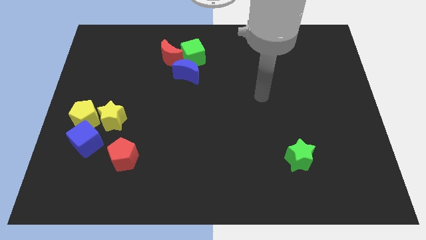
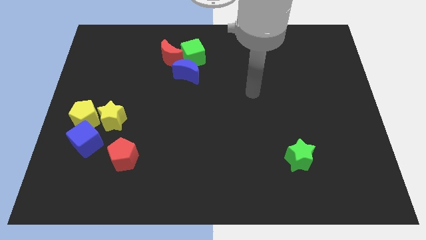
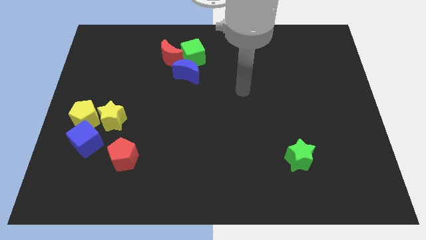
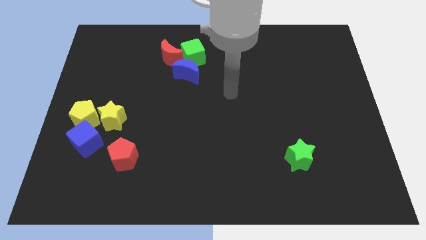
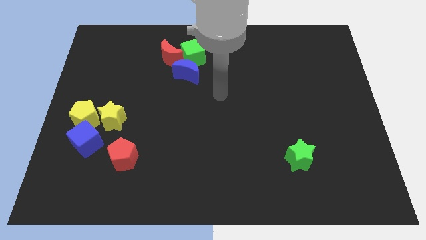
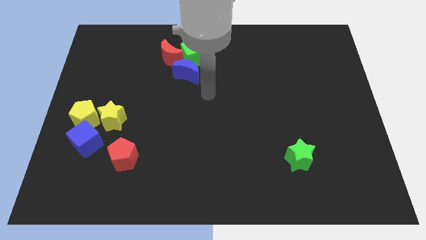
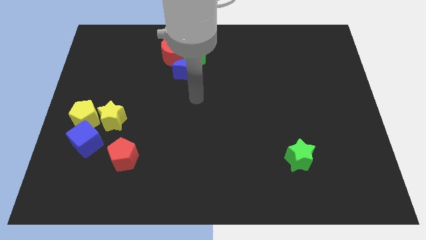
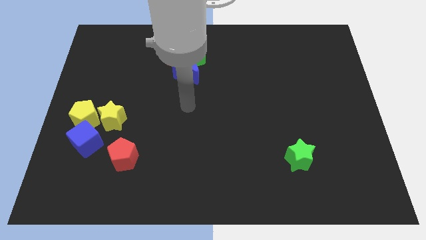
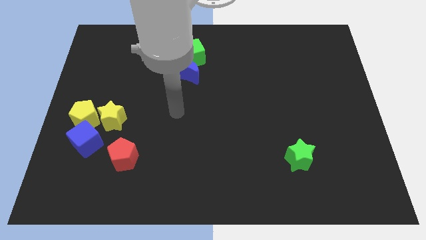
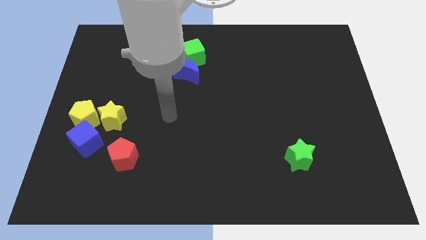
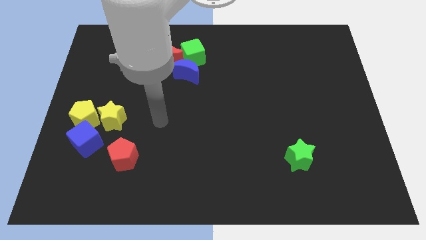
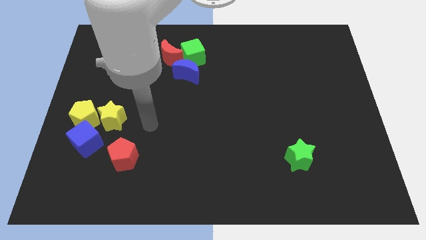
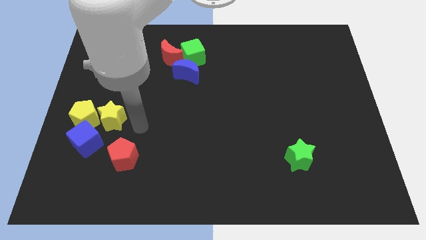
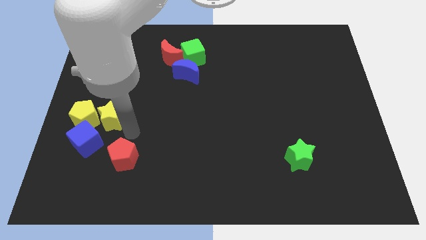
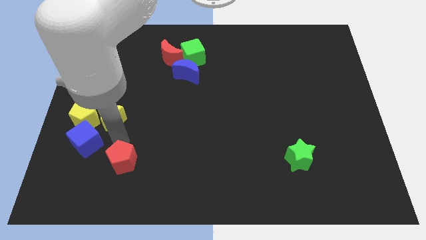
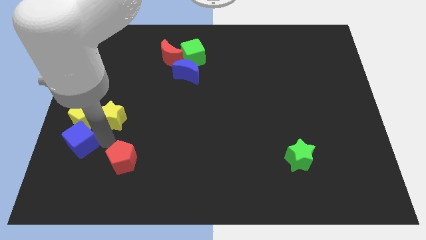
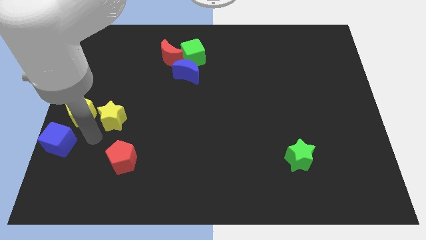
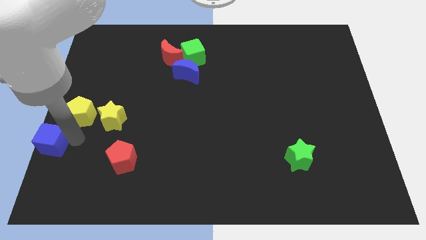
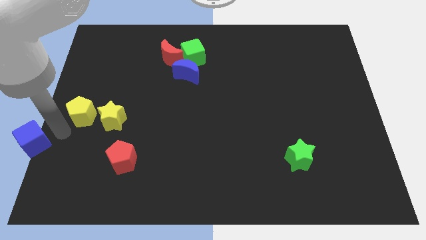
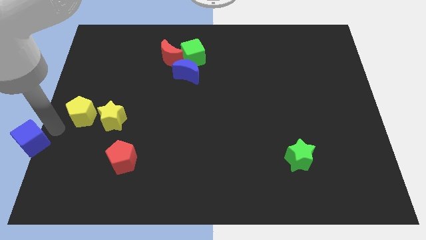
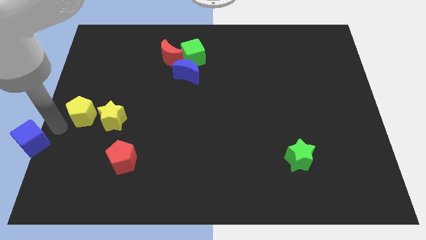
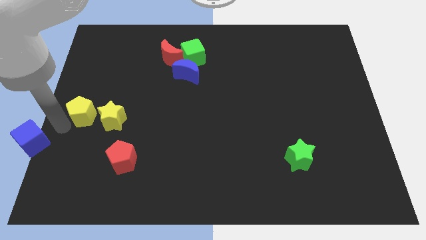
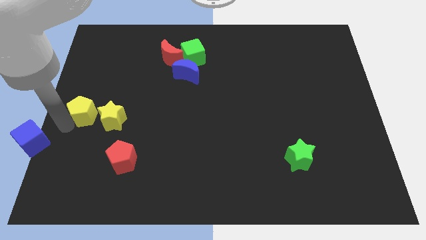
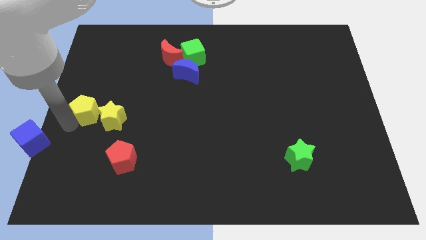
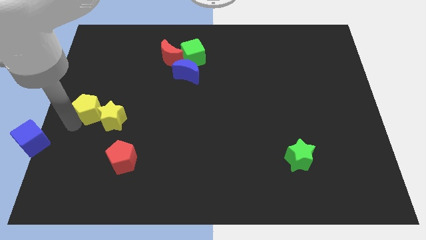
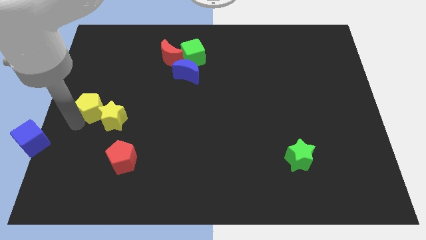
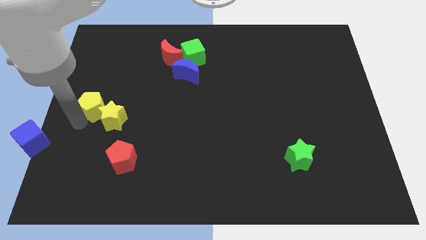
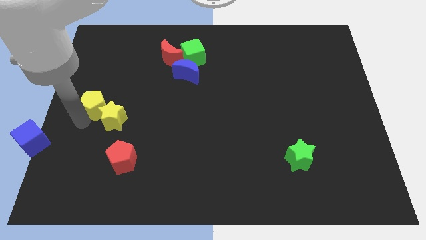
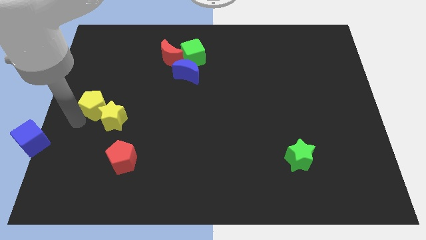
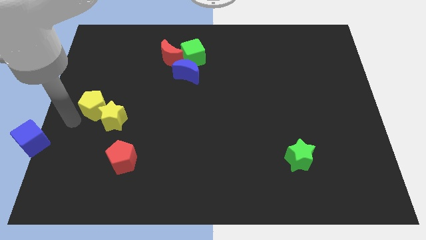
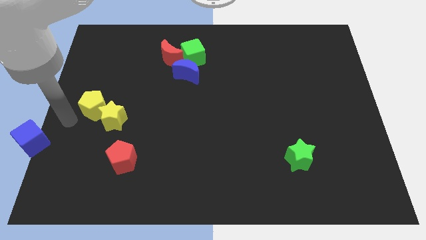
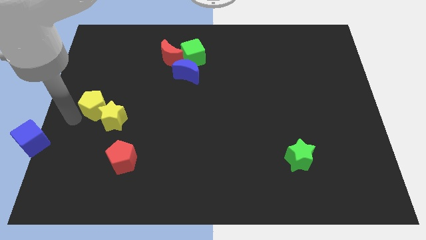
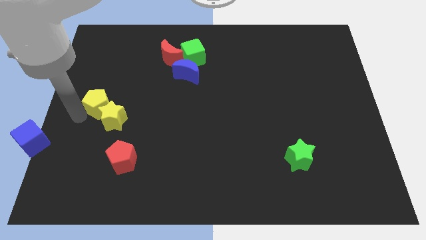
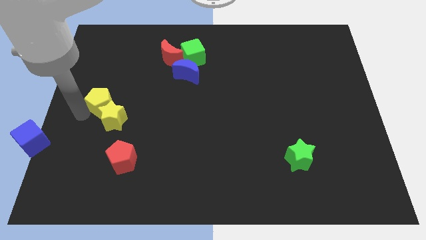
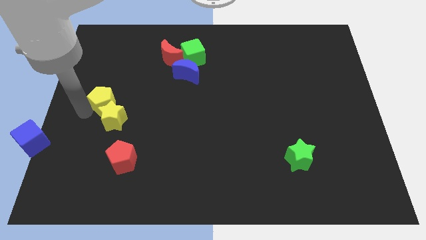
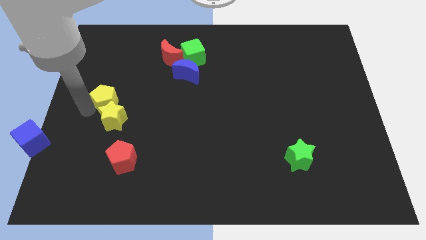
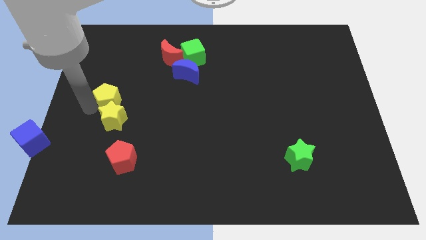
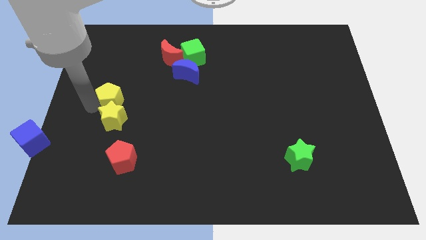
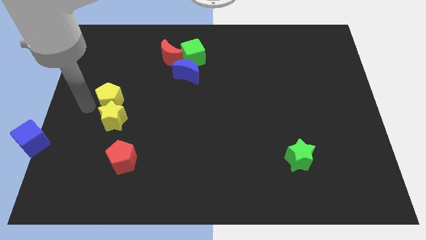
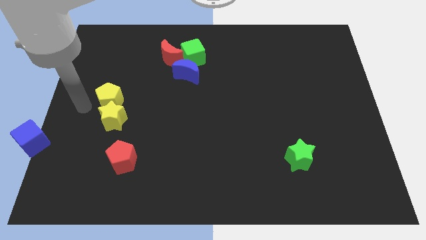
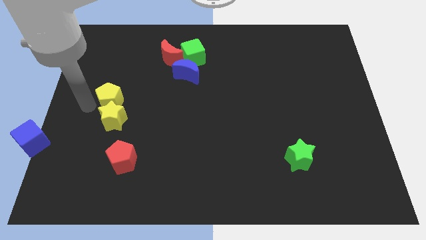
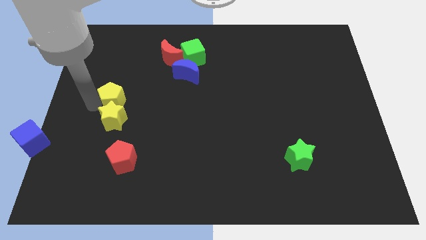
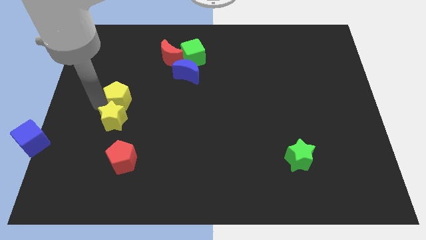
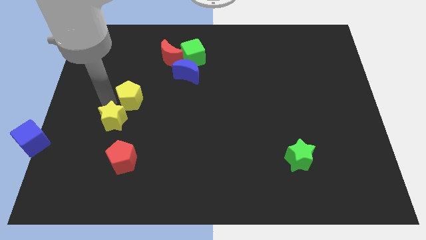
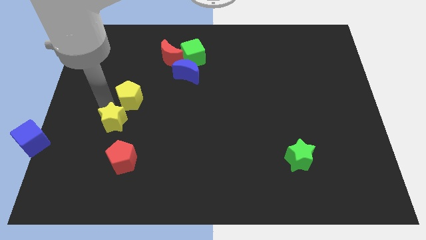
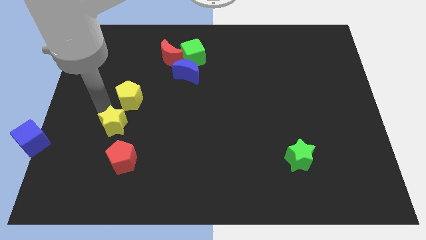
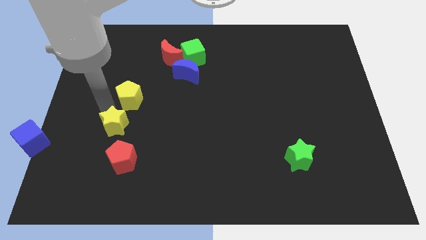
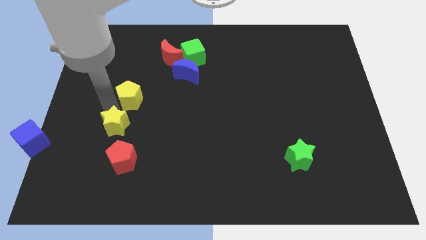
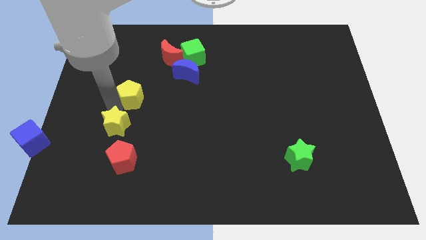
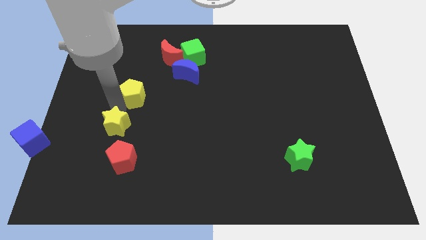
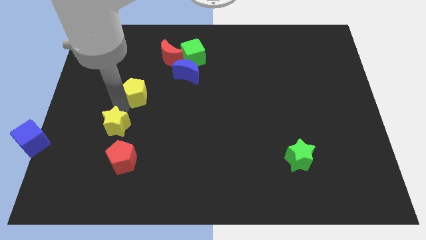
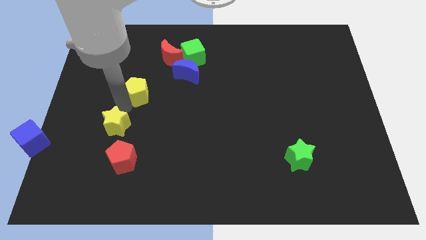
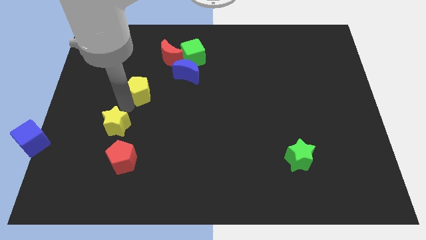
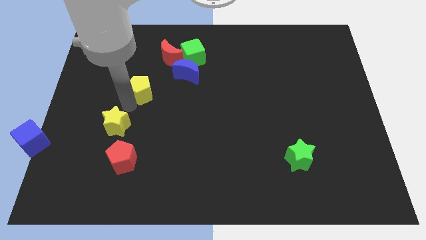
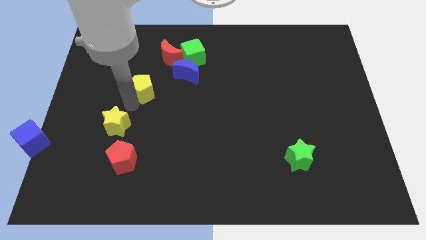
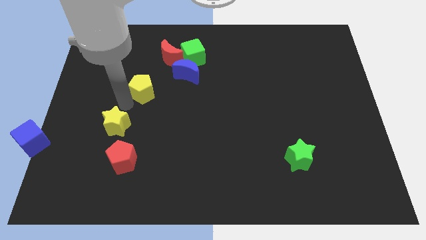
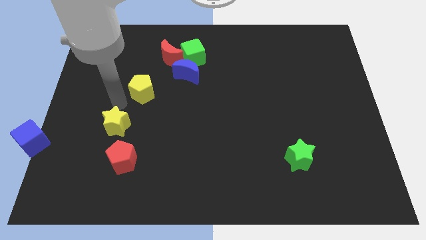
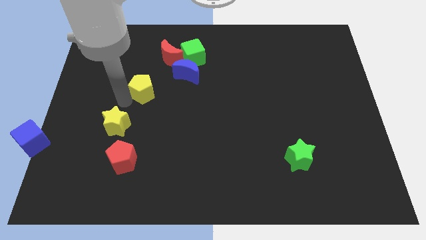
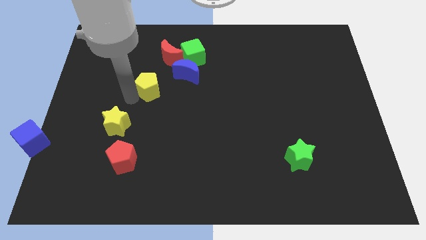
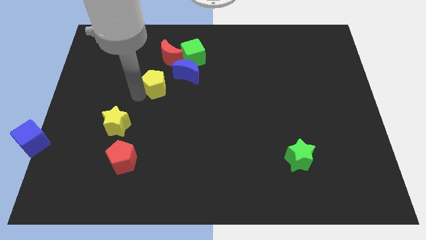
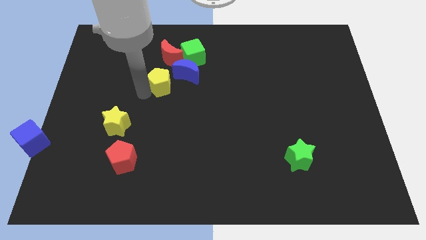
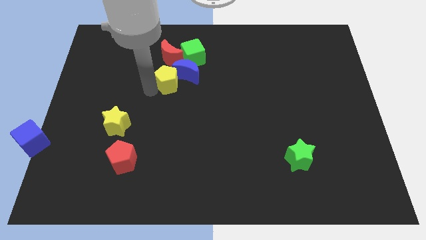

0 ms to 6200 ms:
move the yellow pentagon close to the blue moon

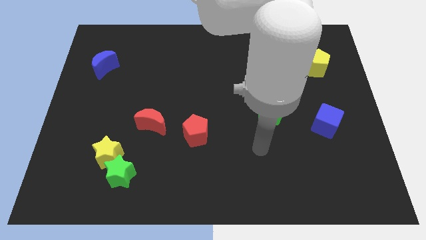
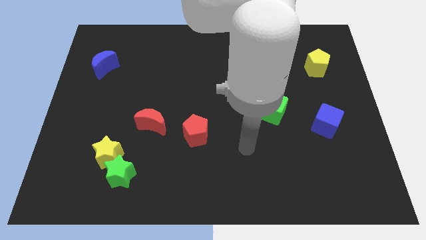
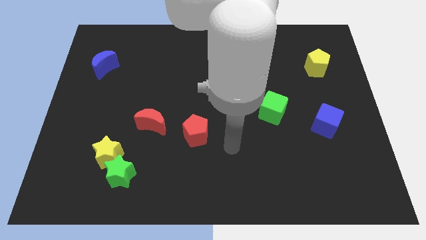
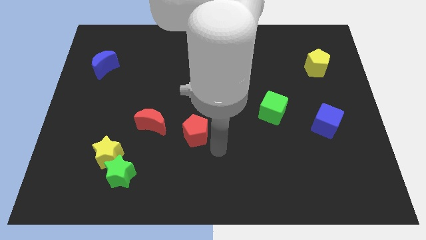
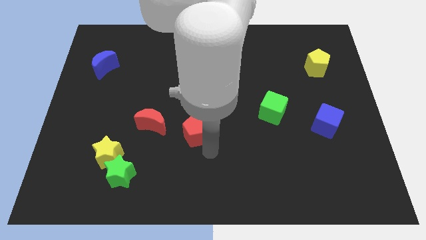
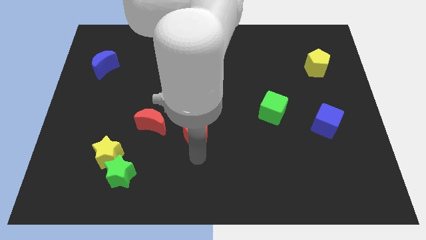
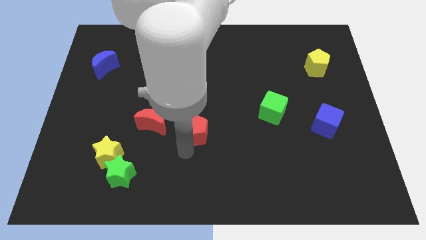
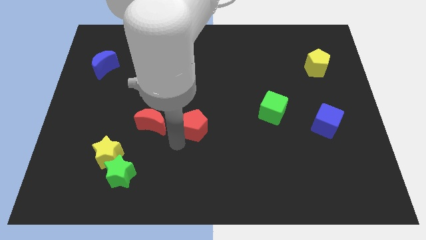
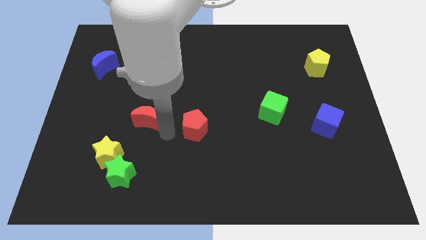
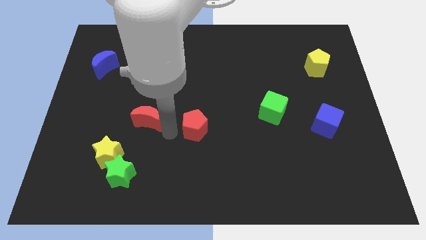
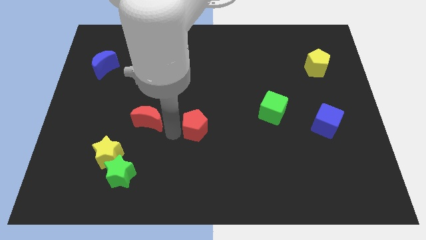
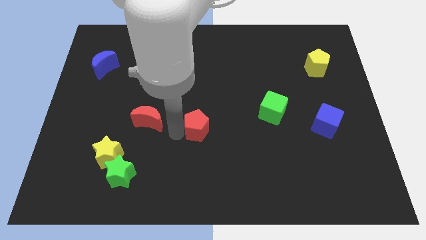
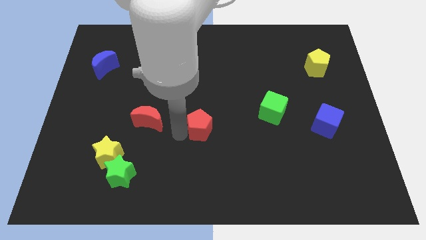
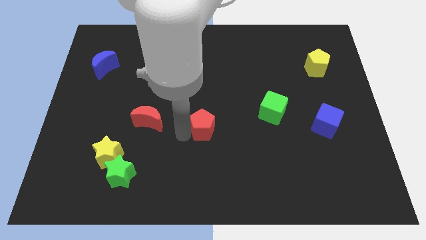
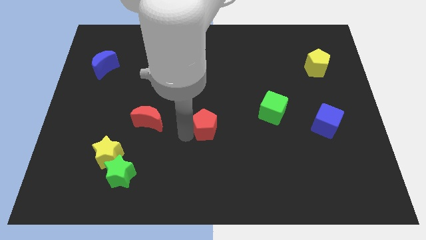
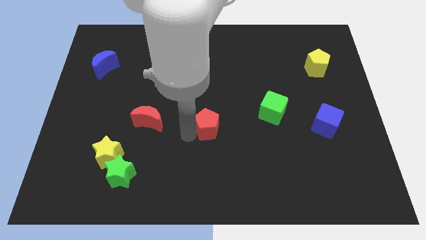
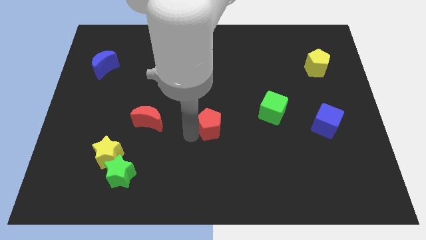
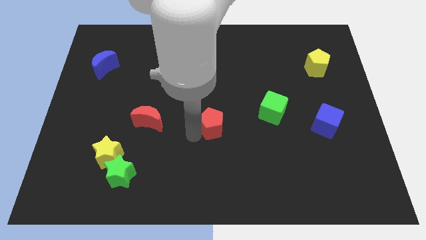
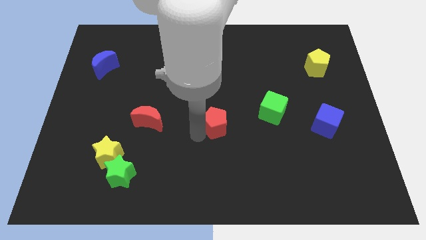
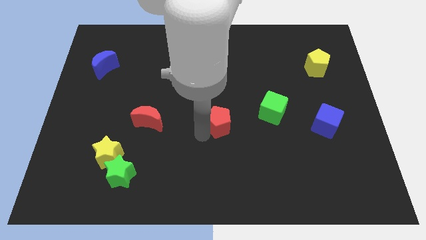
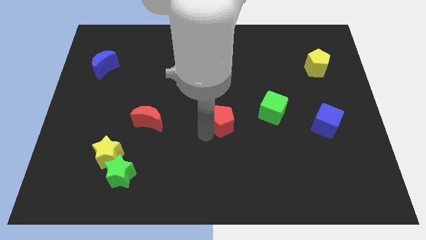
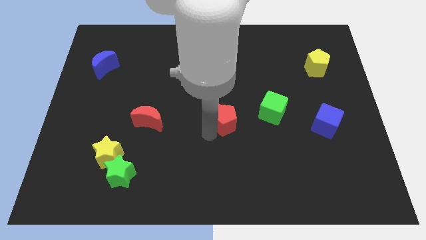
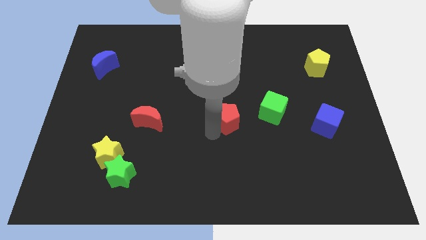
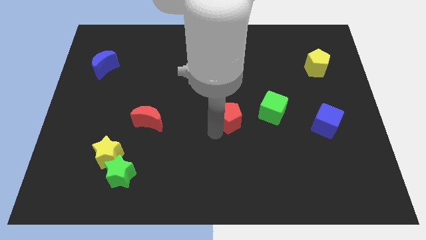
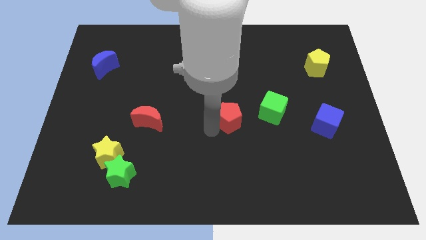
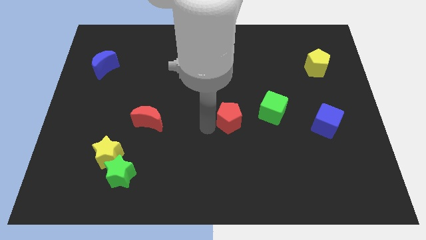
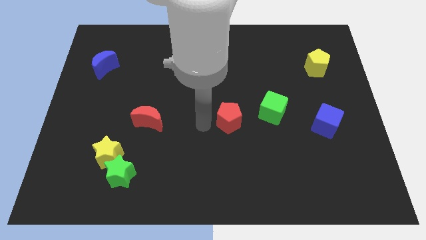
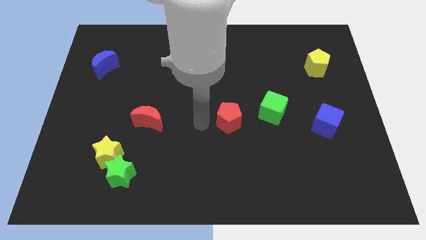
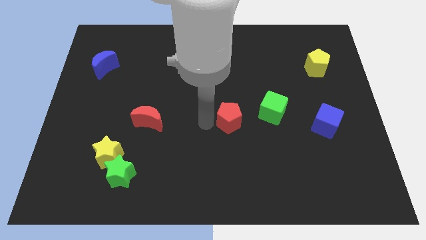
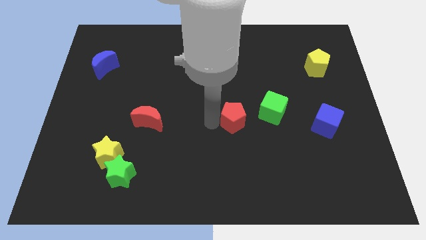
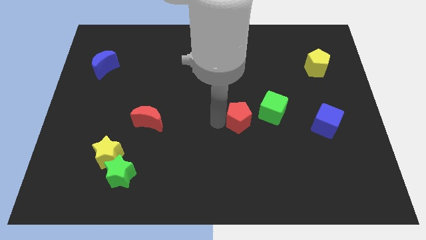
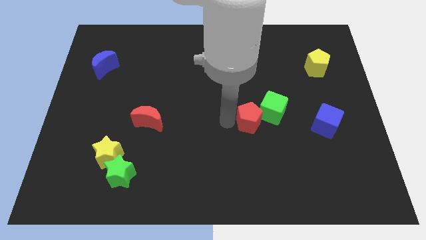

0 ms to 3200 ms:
push the red pentagon close to the green cube
